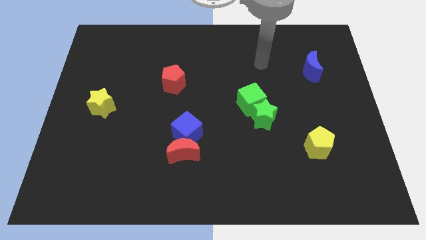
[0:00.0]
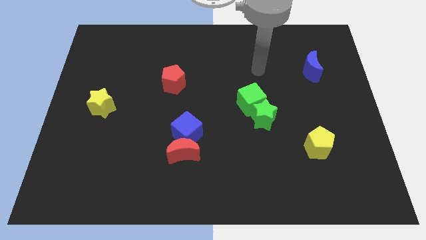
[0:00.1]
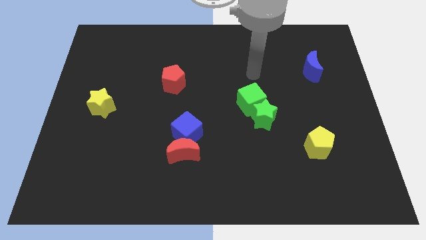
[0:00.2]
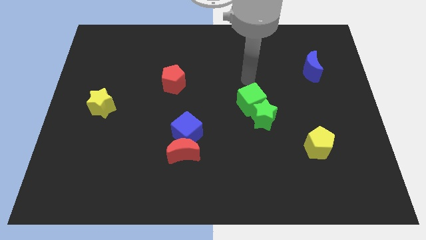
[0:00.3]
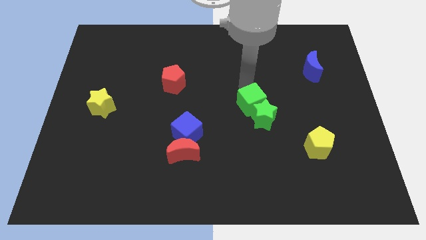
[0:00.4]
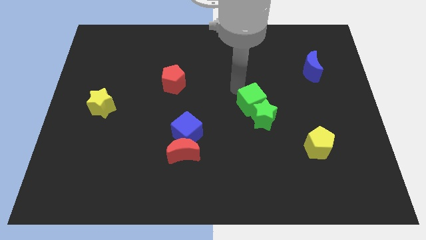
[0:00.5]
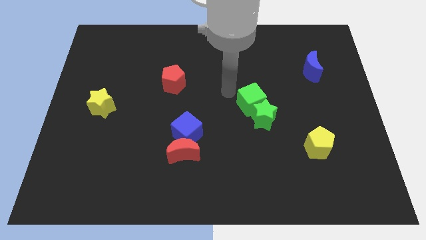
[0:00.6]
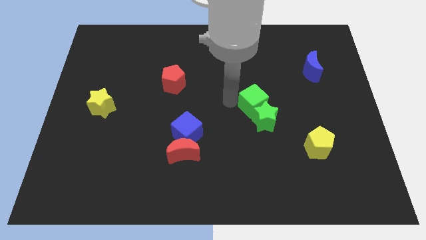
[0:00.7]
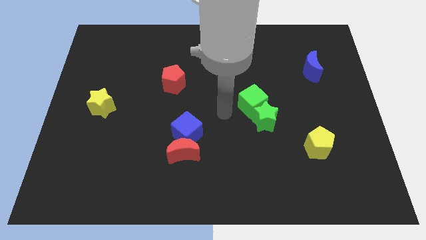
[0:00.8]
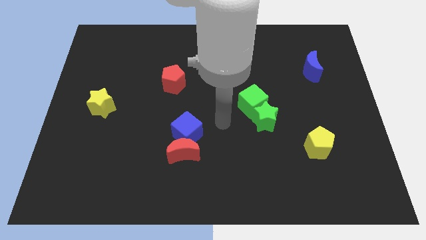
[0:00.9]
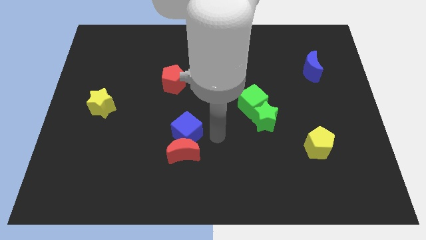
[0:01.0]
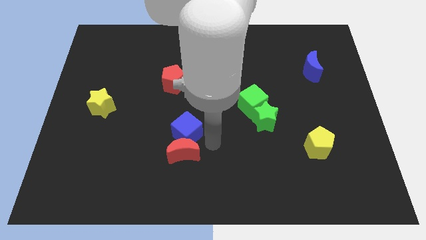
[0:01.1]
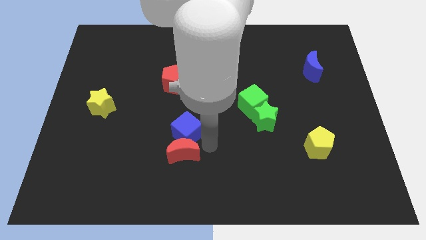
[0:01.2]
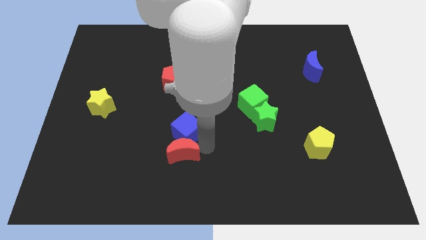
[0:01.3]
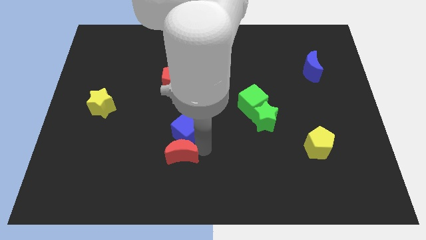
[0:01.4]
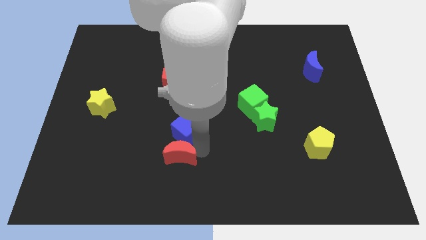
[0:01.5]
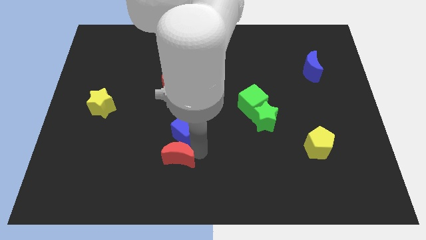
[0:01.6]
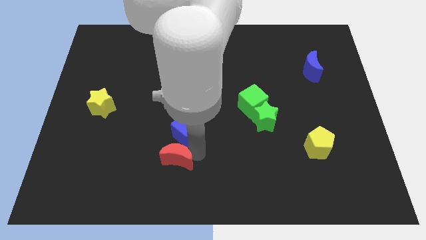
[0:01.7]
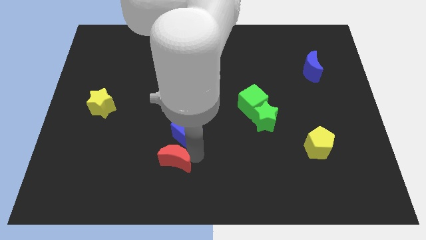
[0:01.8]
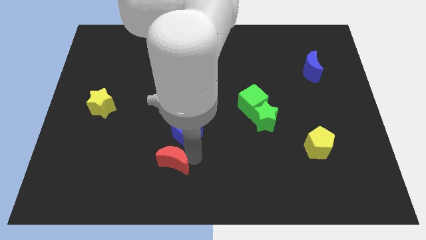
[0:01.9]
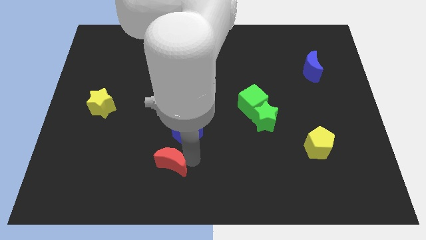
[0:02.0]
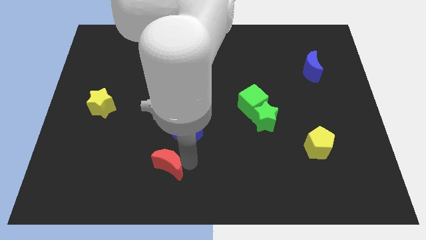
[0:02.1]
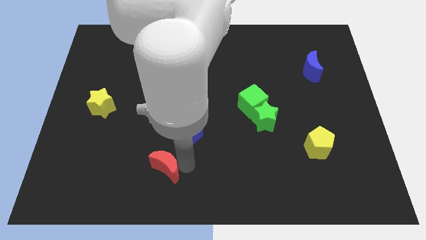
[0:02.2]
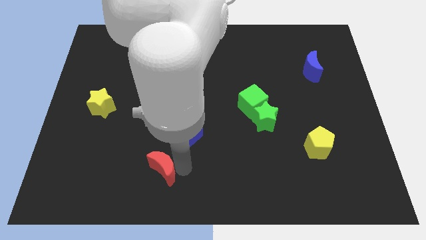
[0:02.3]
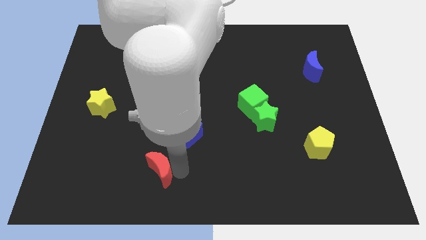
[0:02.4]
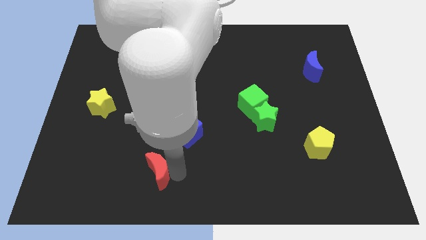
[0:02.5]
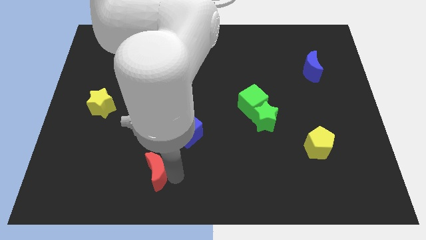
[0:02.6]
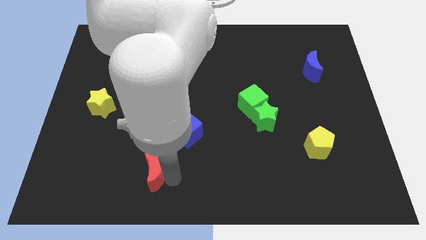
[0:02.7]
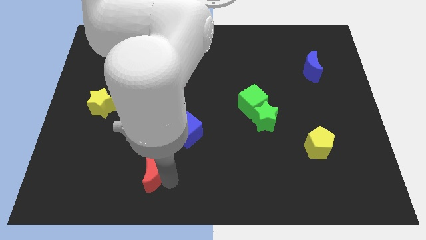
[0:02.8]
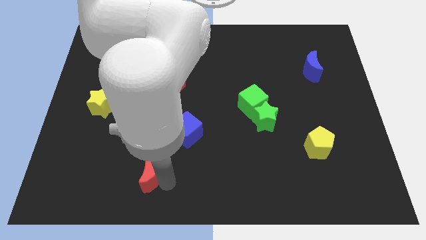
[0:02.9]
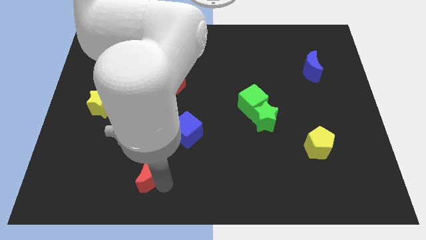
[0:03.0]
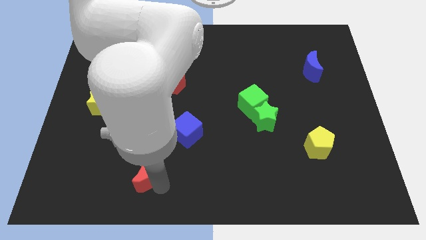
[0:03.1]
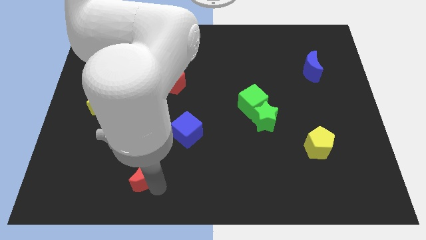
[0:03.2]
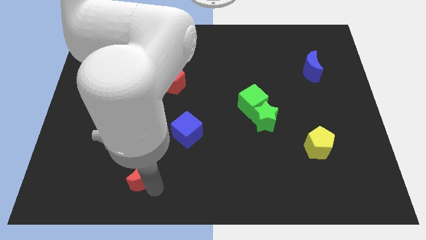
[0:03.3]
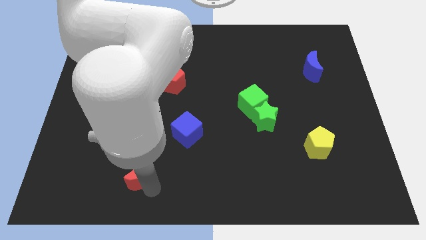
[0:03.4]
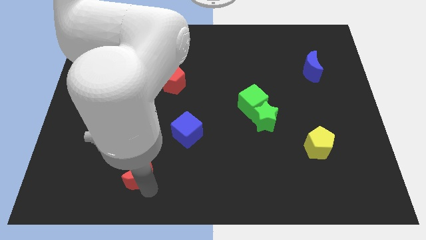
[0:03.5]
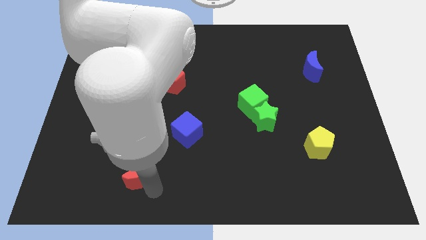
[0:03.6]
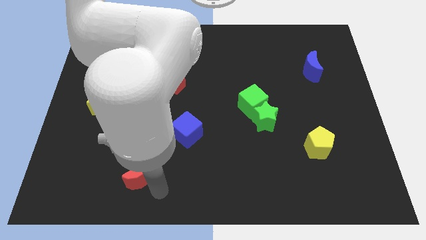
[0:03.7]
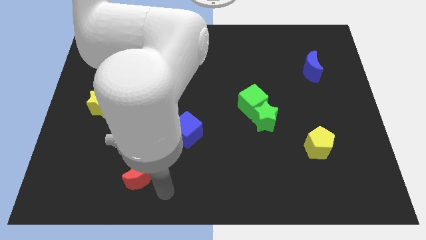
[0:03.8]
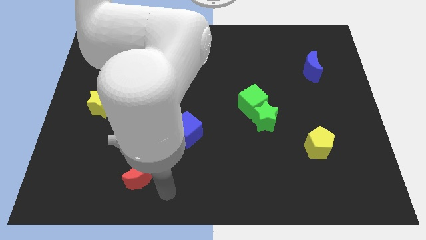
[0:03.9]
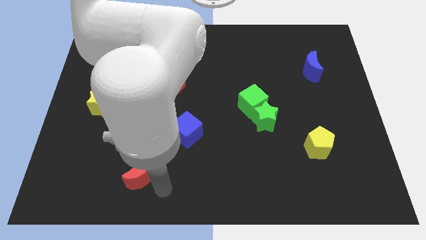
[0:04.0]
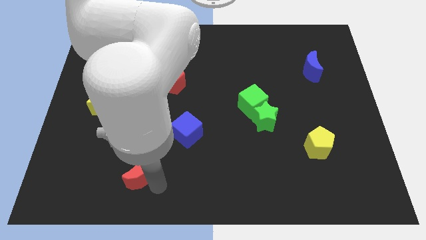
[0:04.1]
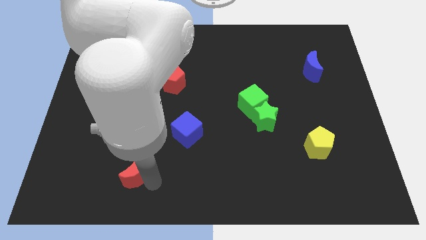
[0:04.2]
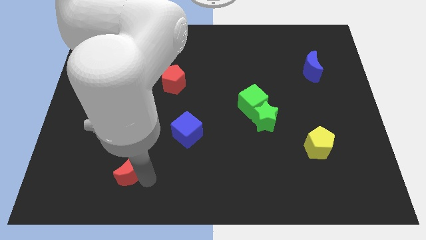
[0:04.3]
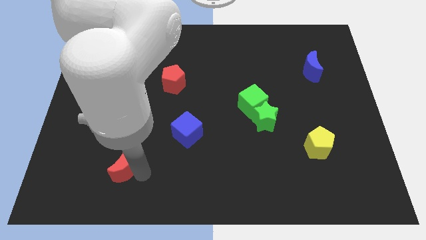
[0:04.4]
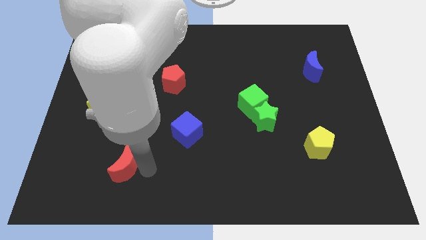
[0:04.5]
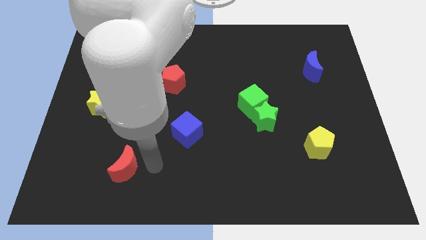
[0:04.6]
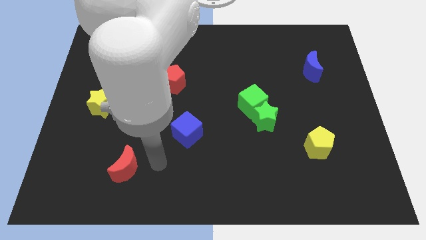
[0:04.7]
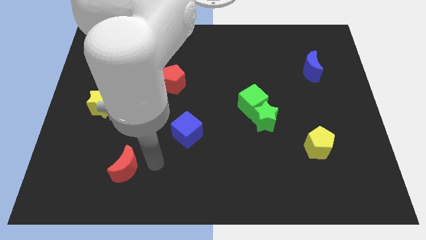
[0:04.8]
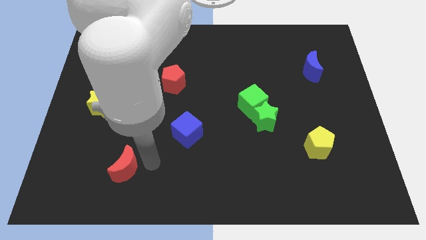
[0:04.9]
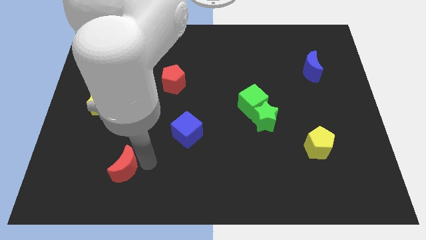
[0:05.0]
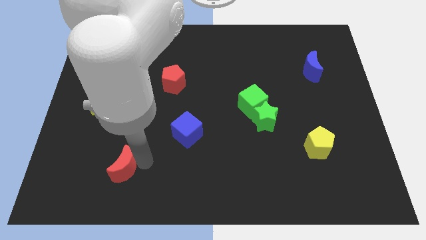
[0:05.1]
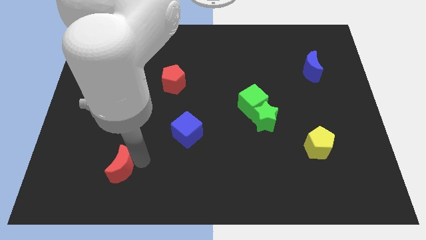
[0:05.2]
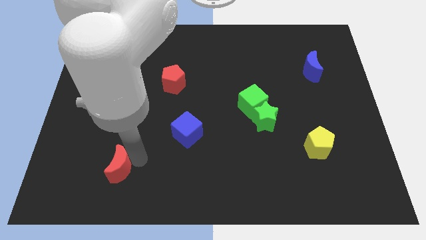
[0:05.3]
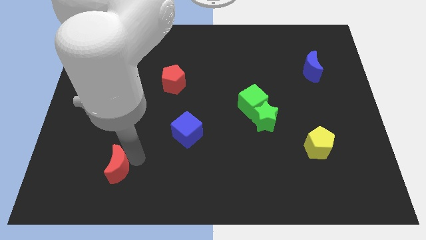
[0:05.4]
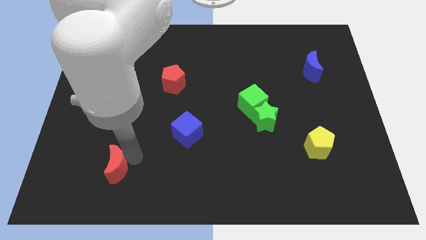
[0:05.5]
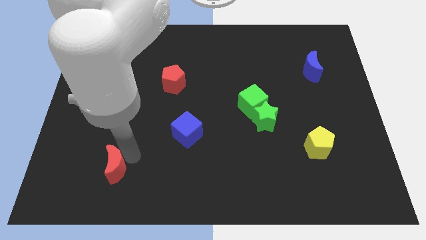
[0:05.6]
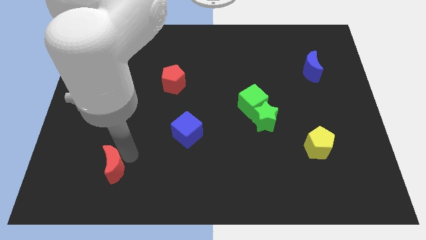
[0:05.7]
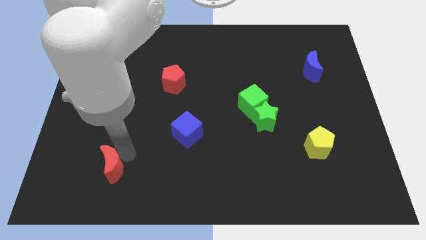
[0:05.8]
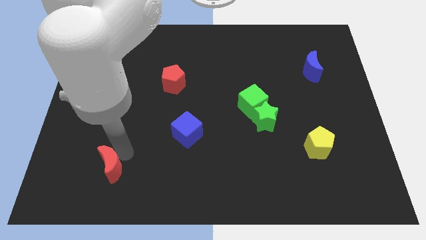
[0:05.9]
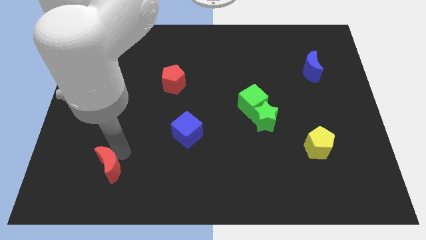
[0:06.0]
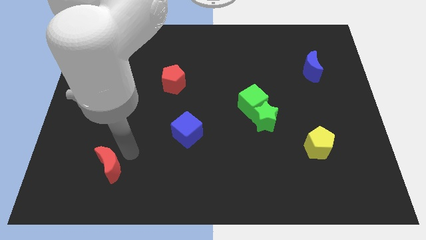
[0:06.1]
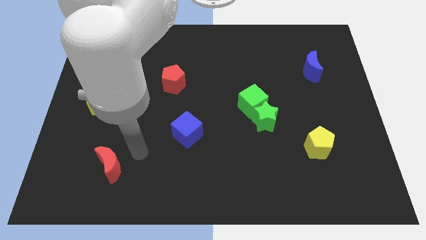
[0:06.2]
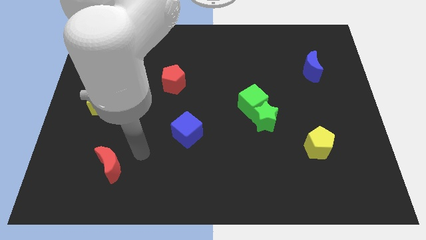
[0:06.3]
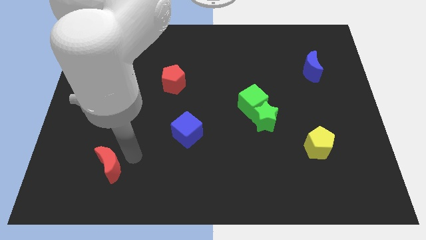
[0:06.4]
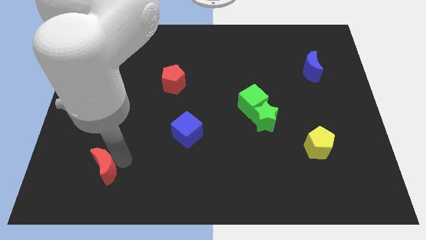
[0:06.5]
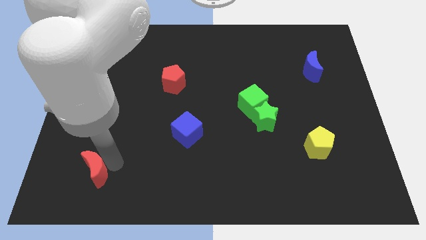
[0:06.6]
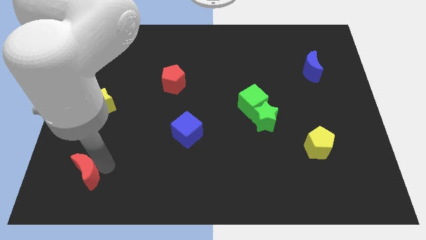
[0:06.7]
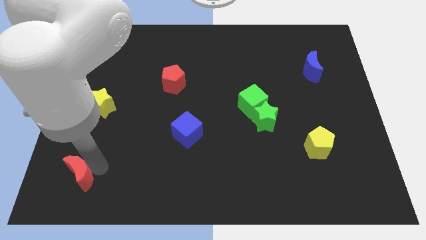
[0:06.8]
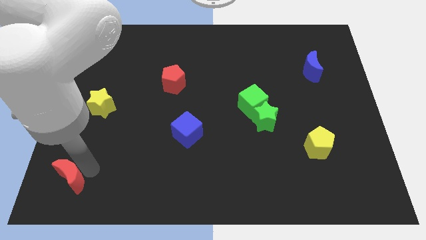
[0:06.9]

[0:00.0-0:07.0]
put the red moon to the lower left corner
